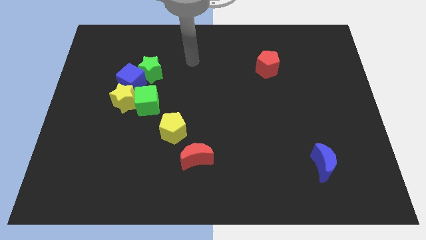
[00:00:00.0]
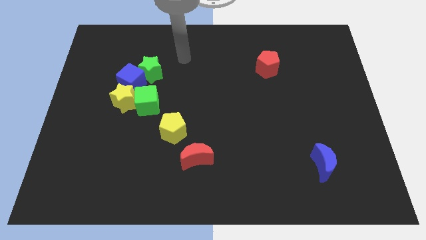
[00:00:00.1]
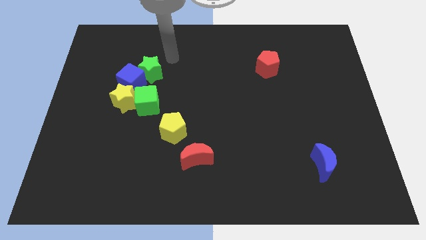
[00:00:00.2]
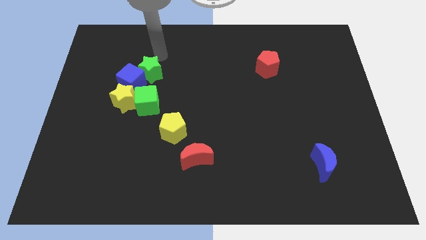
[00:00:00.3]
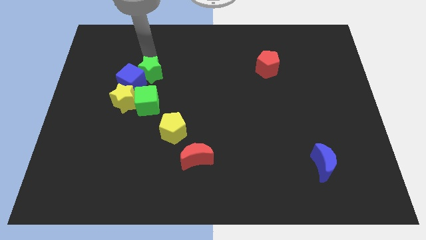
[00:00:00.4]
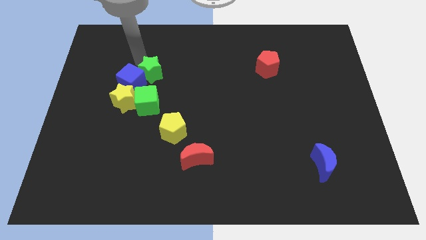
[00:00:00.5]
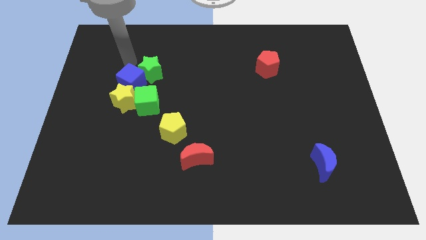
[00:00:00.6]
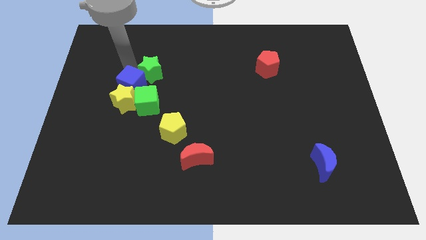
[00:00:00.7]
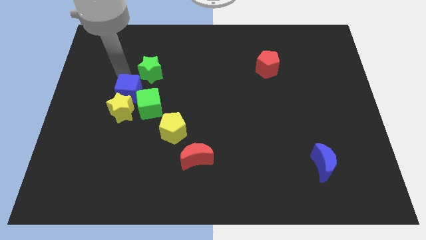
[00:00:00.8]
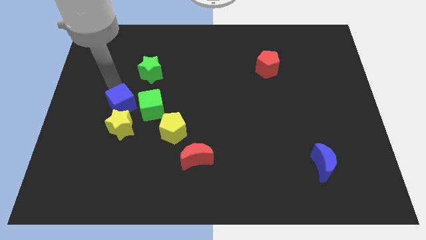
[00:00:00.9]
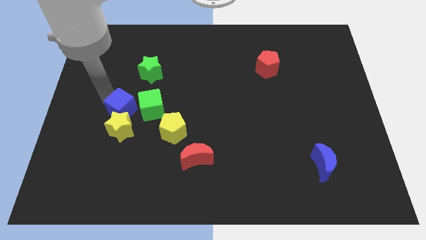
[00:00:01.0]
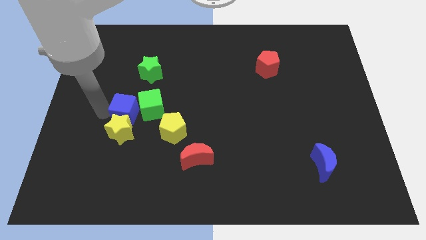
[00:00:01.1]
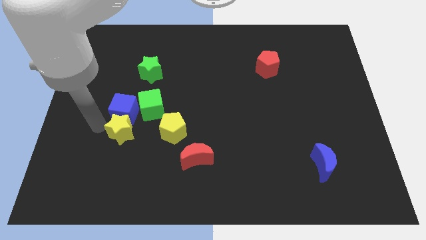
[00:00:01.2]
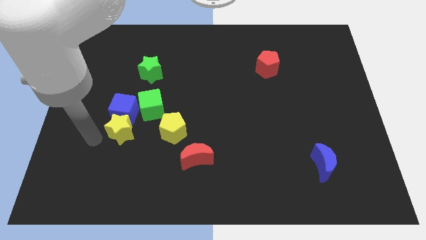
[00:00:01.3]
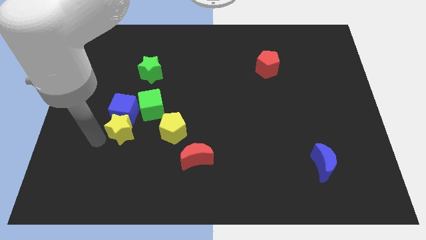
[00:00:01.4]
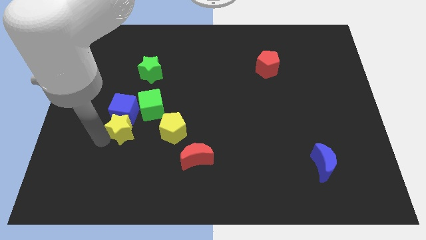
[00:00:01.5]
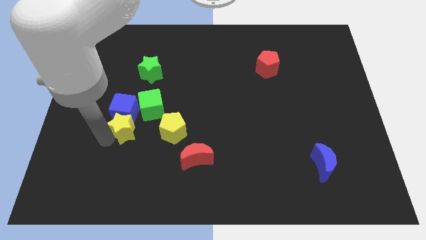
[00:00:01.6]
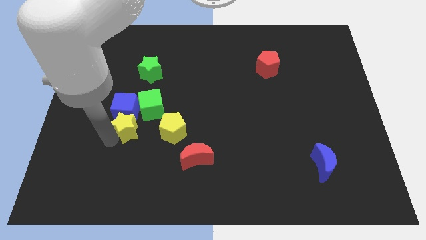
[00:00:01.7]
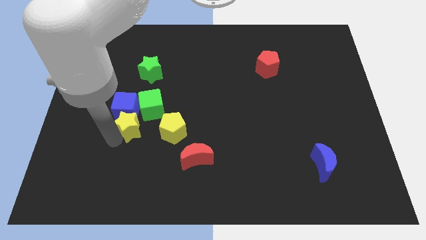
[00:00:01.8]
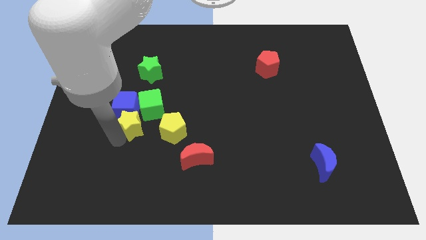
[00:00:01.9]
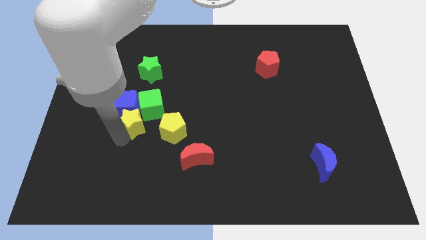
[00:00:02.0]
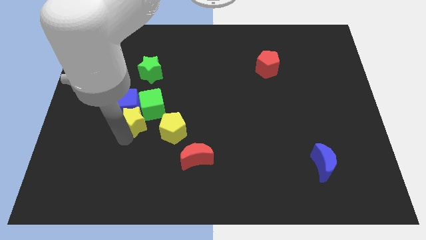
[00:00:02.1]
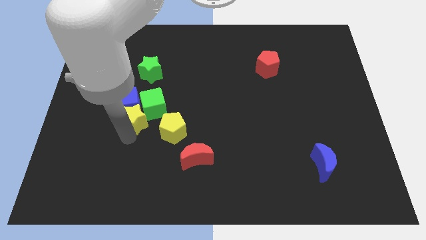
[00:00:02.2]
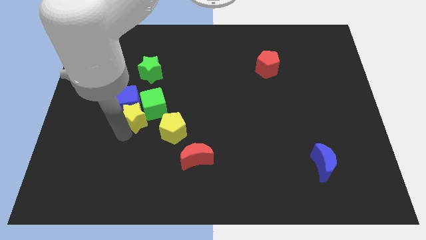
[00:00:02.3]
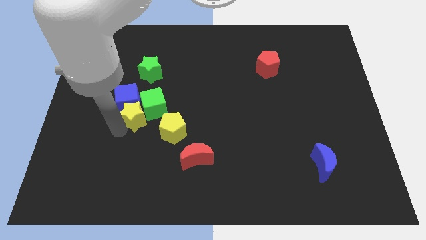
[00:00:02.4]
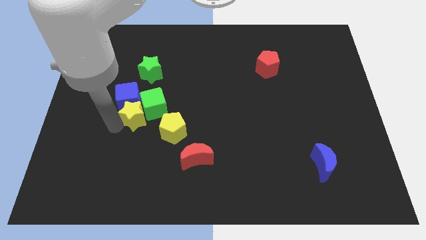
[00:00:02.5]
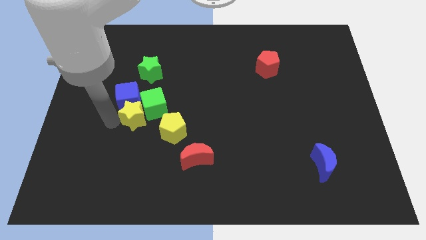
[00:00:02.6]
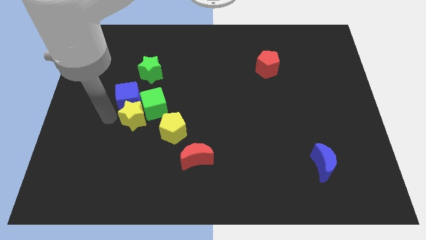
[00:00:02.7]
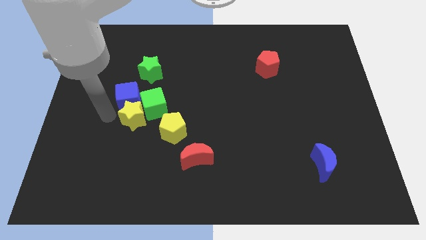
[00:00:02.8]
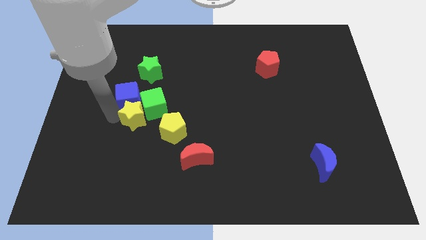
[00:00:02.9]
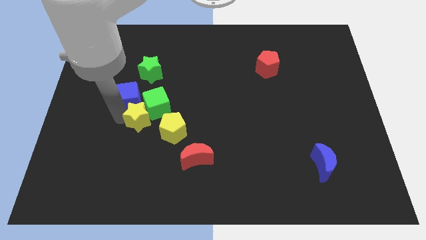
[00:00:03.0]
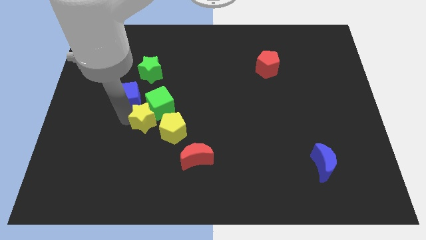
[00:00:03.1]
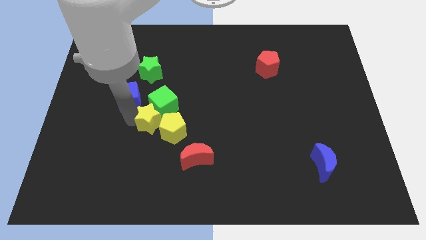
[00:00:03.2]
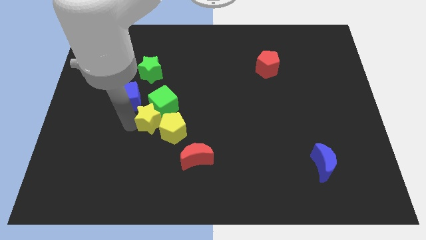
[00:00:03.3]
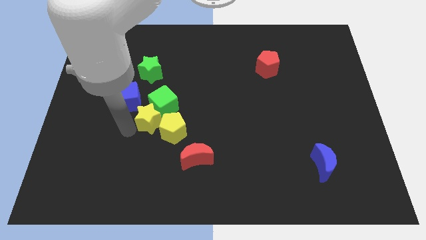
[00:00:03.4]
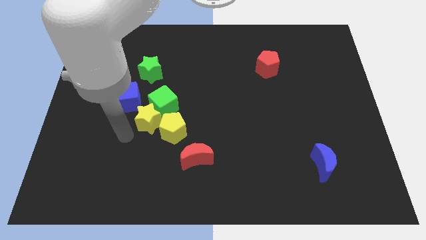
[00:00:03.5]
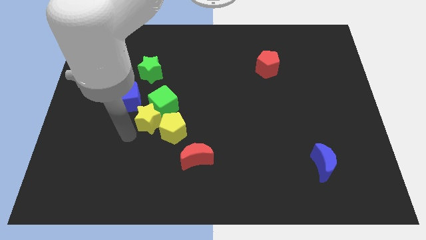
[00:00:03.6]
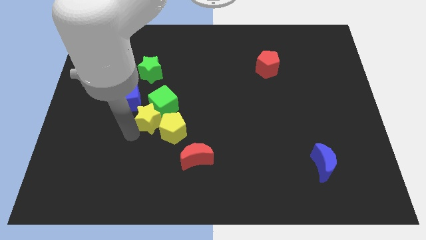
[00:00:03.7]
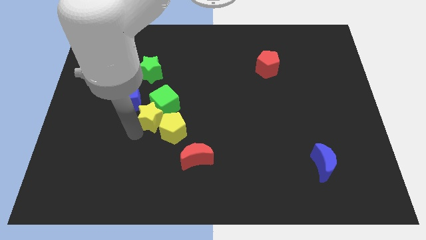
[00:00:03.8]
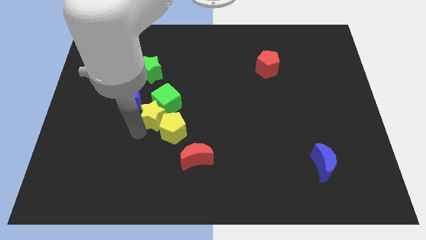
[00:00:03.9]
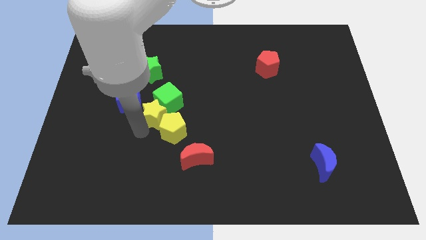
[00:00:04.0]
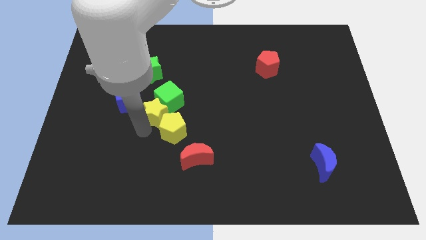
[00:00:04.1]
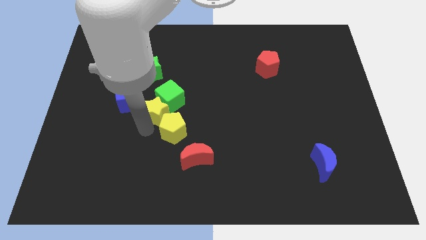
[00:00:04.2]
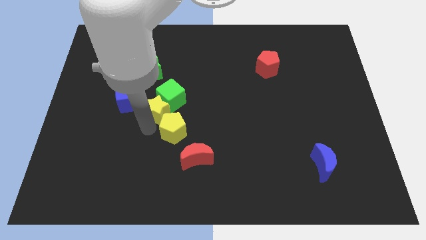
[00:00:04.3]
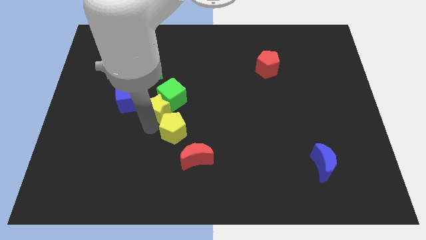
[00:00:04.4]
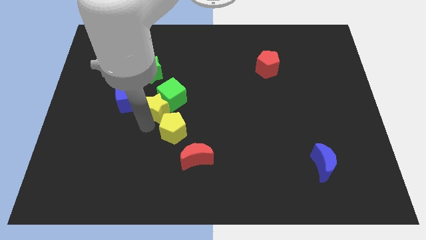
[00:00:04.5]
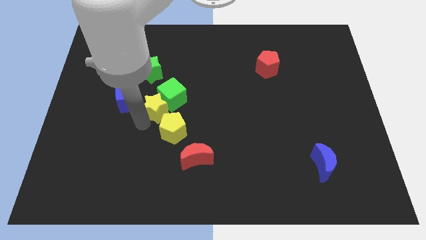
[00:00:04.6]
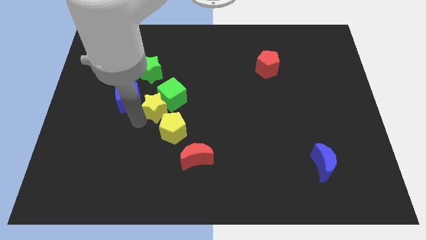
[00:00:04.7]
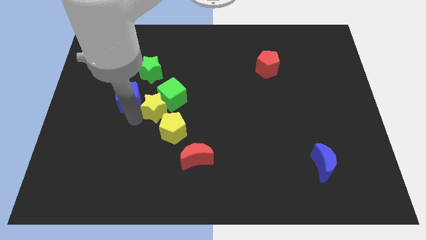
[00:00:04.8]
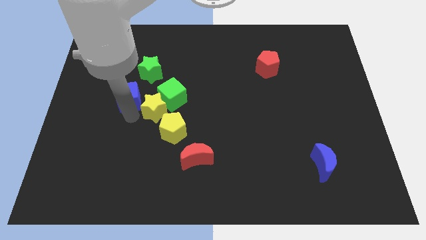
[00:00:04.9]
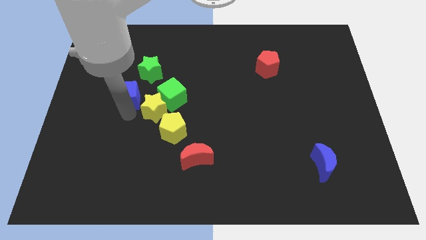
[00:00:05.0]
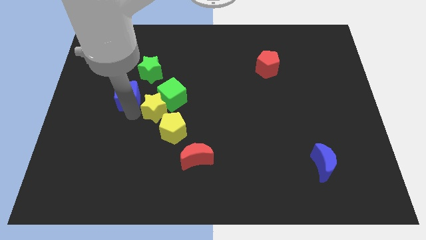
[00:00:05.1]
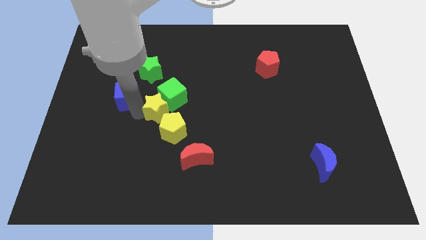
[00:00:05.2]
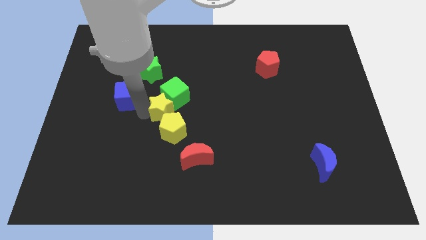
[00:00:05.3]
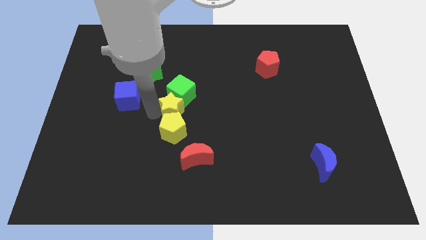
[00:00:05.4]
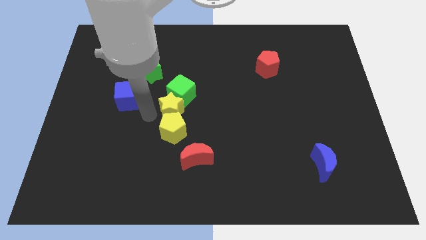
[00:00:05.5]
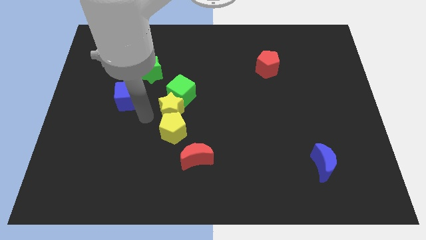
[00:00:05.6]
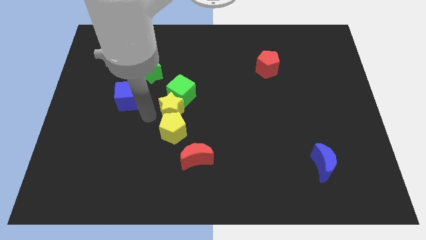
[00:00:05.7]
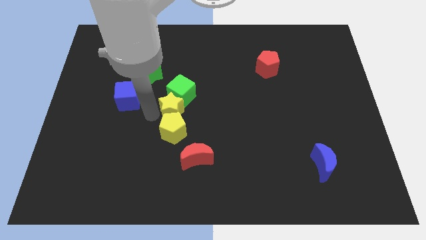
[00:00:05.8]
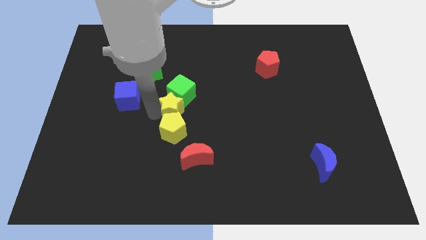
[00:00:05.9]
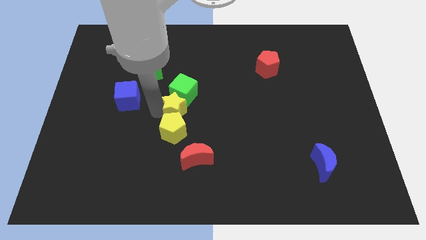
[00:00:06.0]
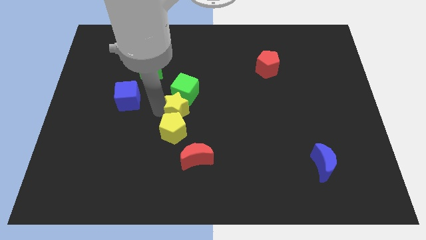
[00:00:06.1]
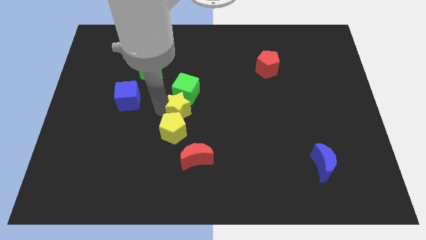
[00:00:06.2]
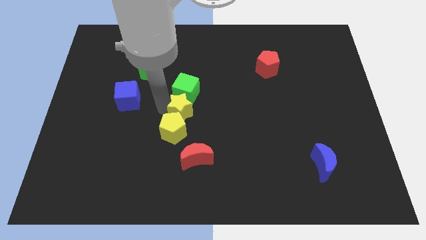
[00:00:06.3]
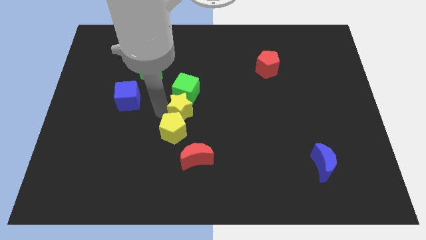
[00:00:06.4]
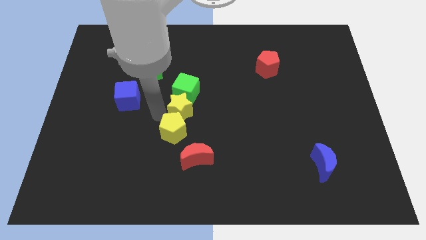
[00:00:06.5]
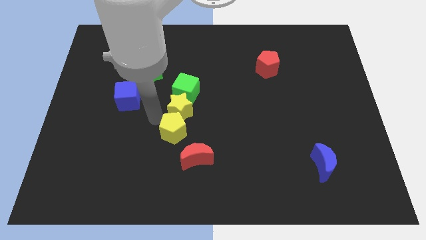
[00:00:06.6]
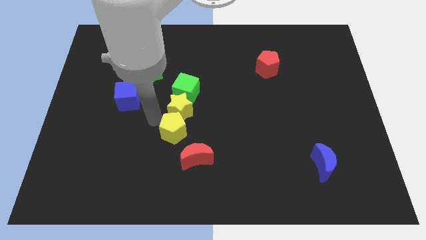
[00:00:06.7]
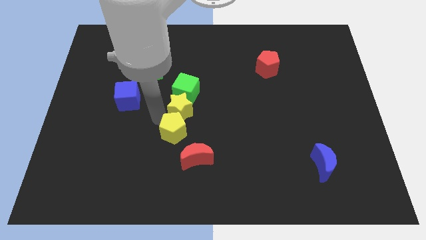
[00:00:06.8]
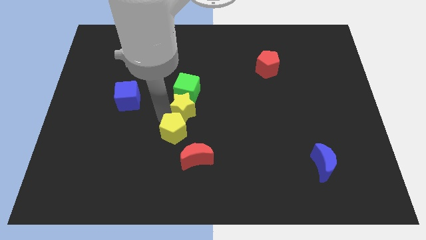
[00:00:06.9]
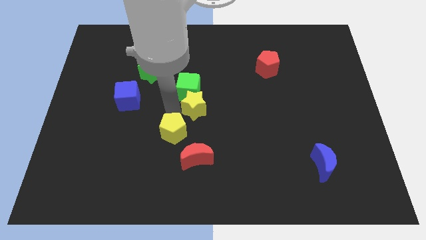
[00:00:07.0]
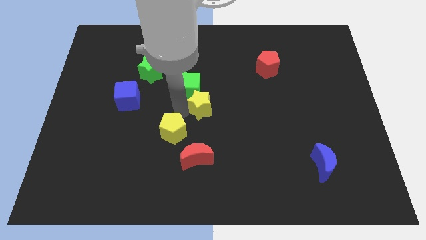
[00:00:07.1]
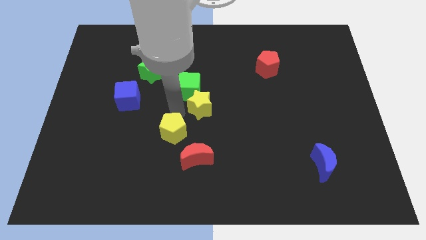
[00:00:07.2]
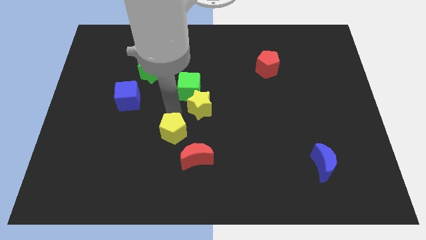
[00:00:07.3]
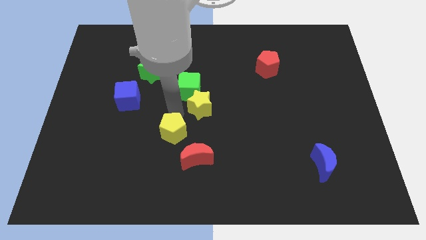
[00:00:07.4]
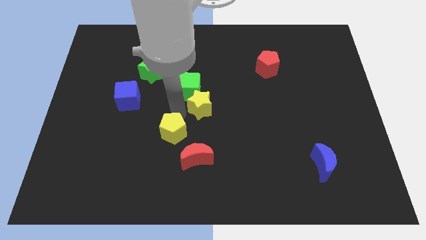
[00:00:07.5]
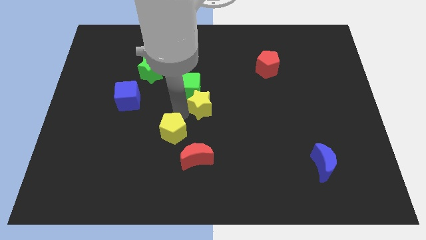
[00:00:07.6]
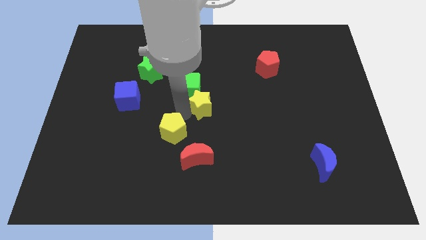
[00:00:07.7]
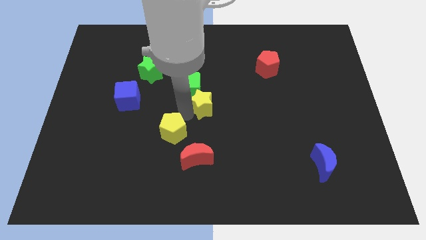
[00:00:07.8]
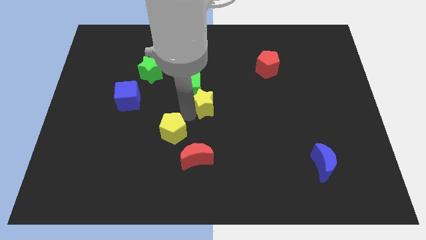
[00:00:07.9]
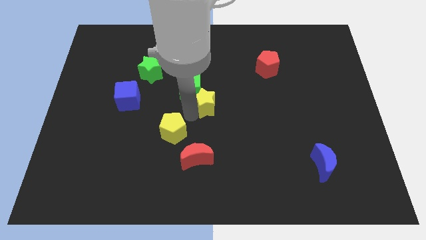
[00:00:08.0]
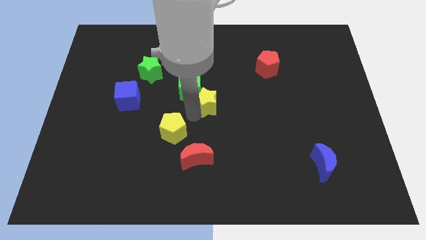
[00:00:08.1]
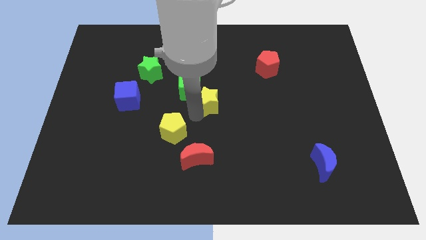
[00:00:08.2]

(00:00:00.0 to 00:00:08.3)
push the yellow star to the right
